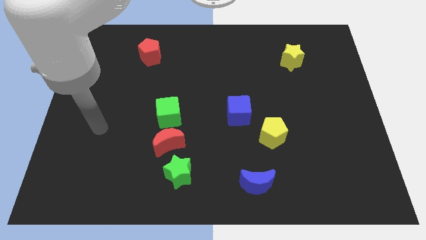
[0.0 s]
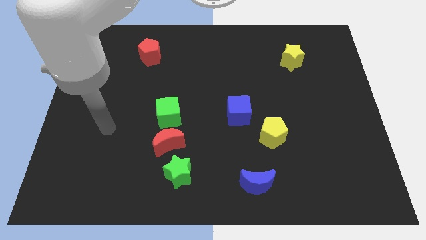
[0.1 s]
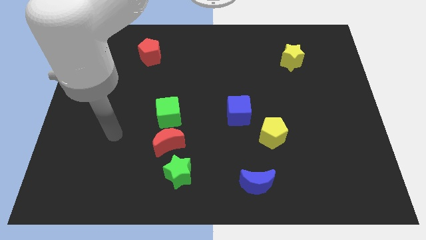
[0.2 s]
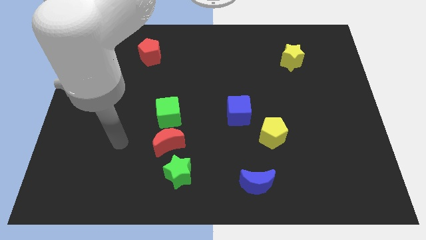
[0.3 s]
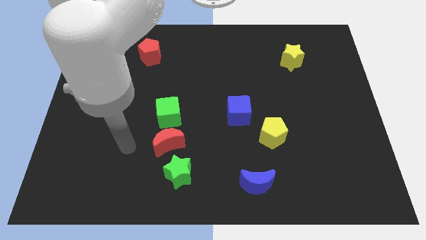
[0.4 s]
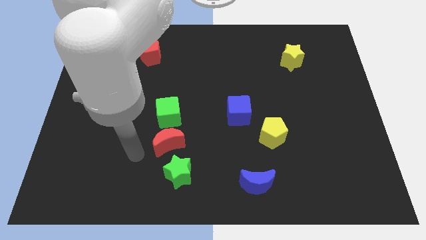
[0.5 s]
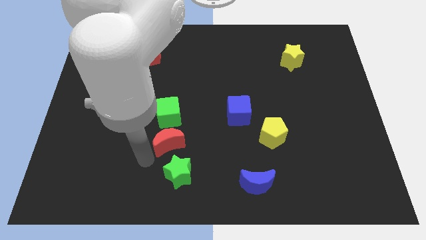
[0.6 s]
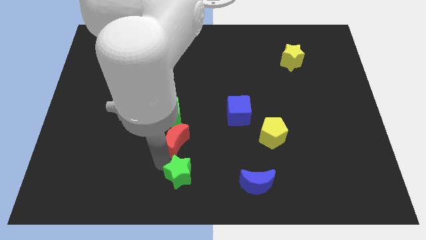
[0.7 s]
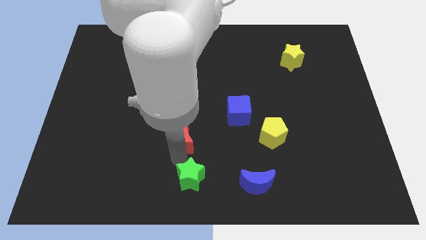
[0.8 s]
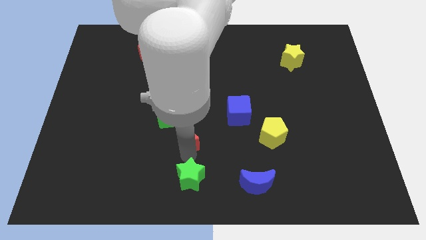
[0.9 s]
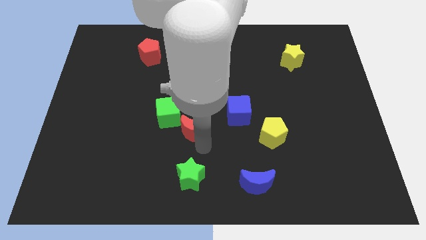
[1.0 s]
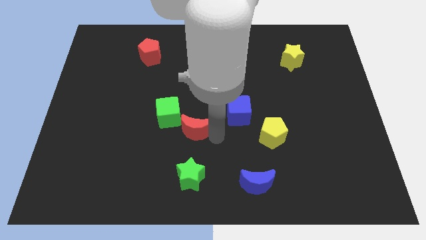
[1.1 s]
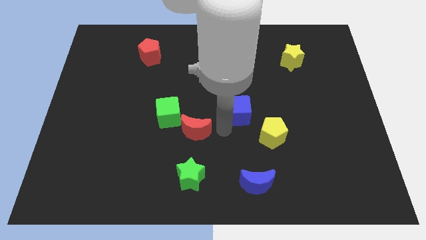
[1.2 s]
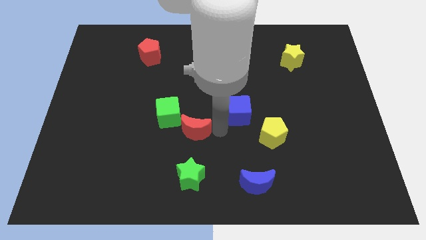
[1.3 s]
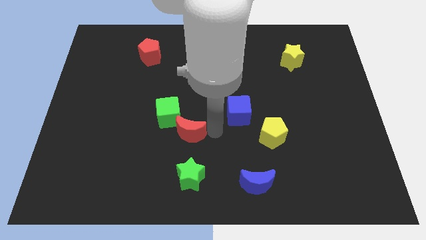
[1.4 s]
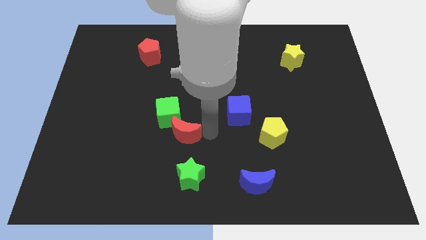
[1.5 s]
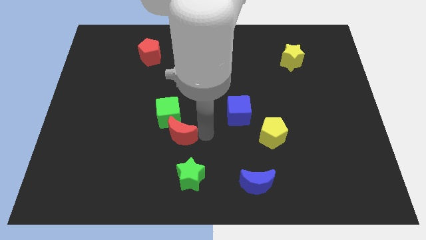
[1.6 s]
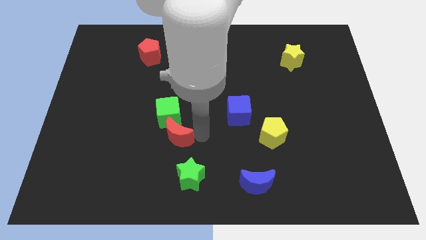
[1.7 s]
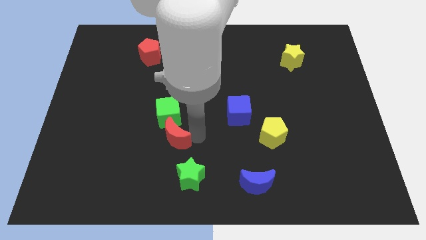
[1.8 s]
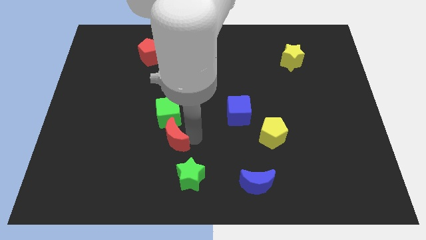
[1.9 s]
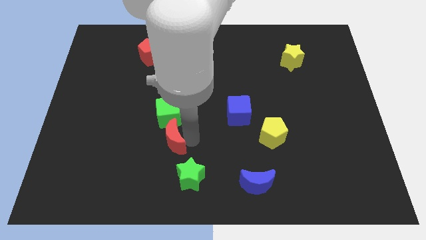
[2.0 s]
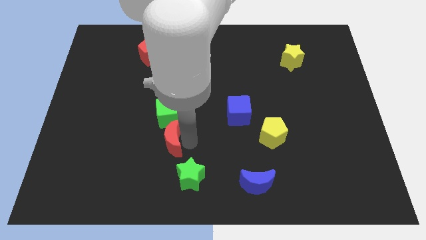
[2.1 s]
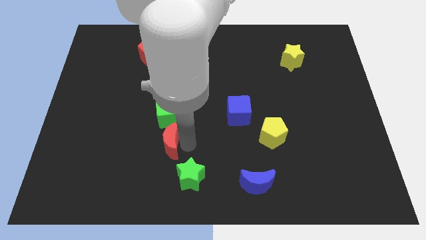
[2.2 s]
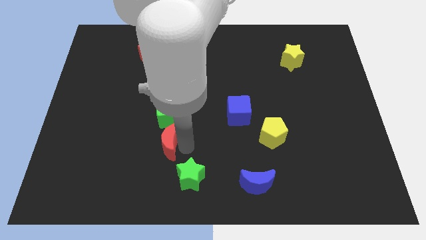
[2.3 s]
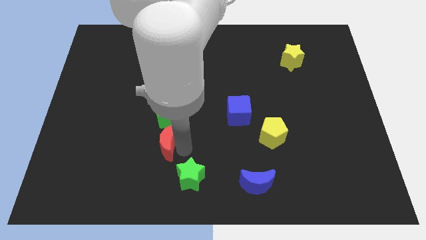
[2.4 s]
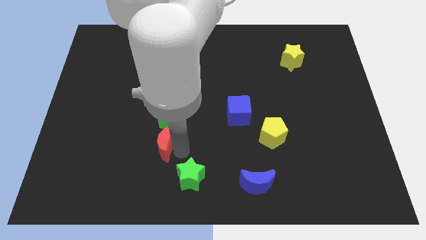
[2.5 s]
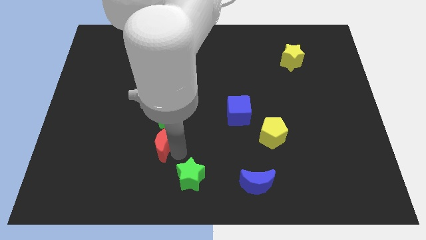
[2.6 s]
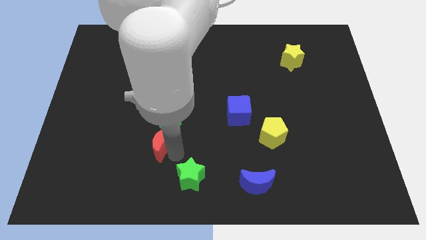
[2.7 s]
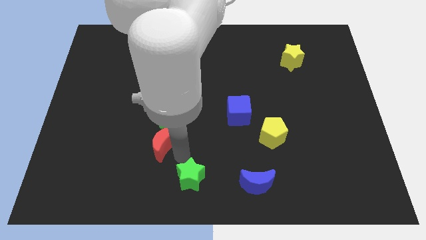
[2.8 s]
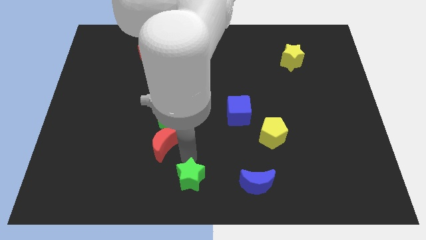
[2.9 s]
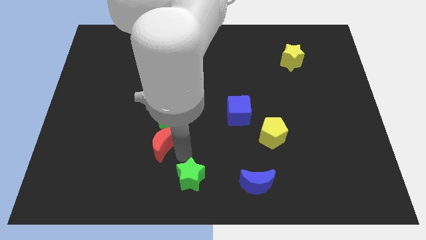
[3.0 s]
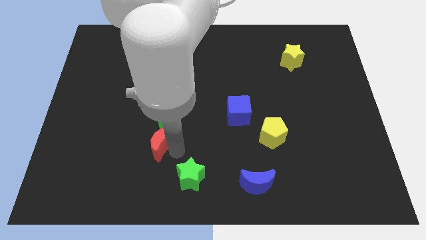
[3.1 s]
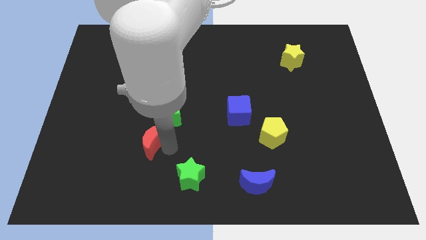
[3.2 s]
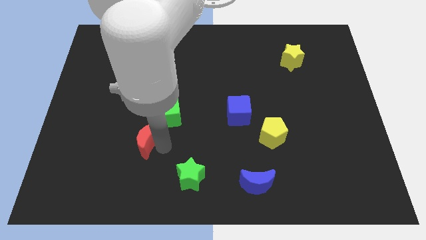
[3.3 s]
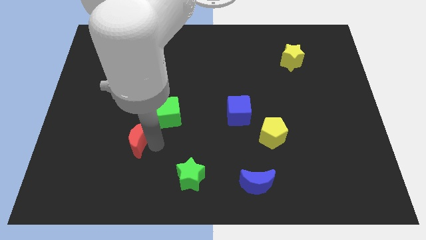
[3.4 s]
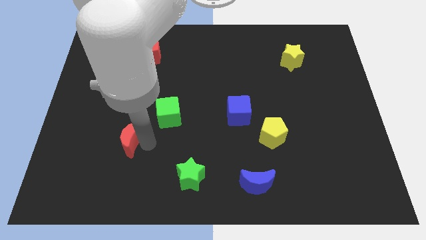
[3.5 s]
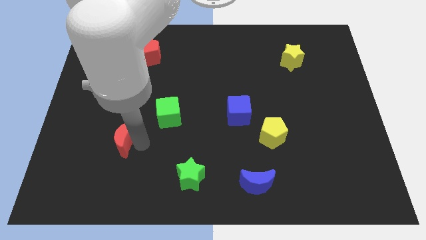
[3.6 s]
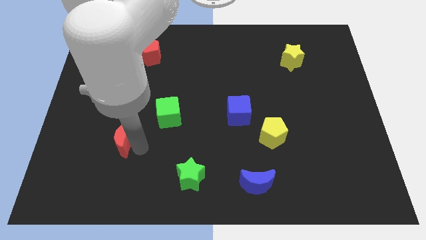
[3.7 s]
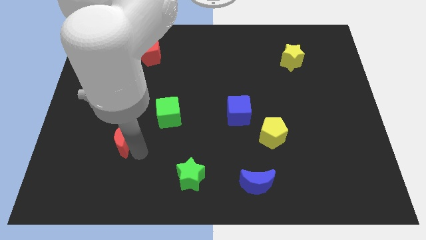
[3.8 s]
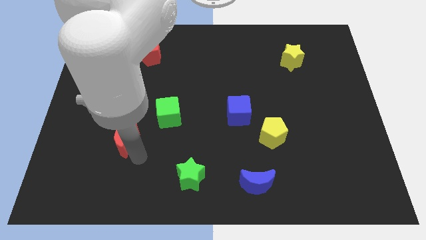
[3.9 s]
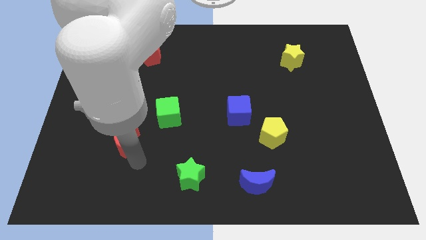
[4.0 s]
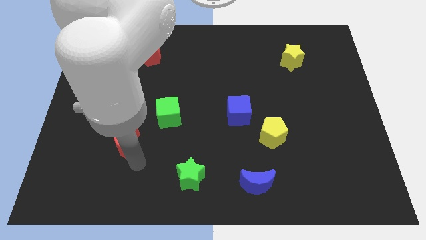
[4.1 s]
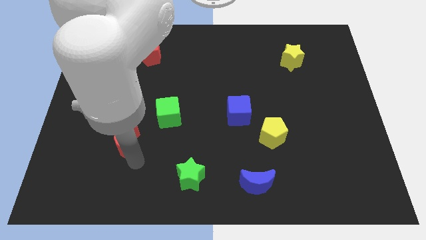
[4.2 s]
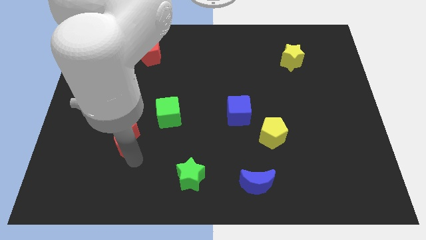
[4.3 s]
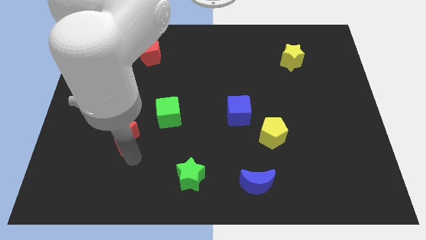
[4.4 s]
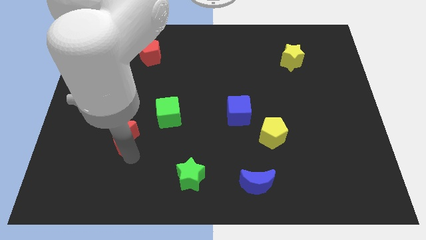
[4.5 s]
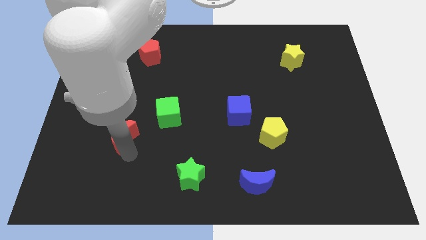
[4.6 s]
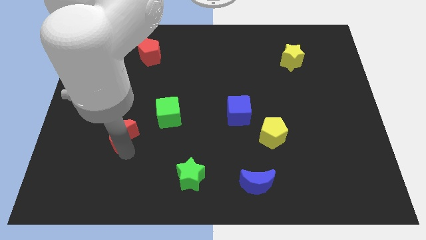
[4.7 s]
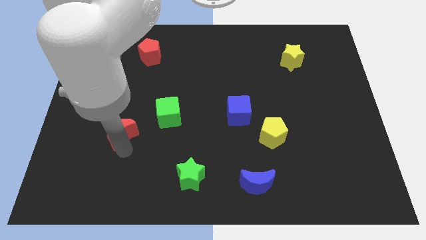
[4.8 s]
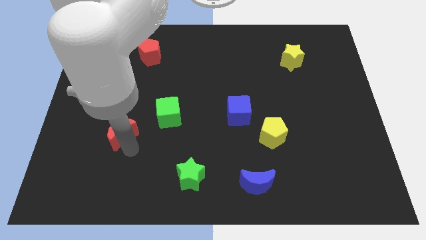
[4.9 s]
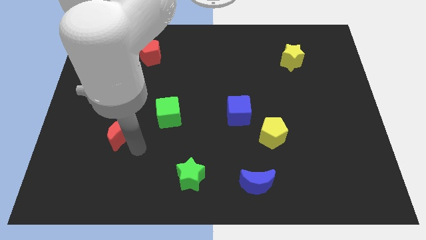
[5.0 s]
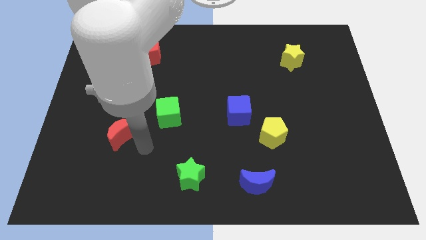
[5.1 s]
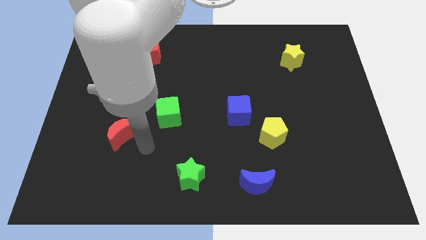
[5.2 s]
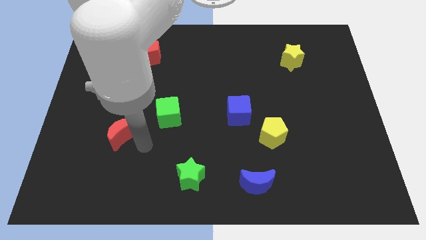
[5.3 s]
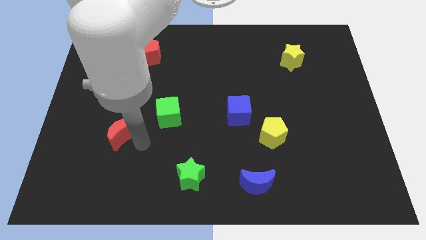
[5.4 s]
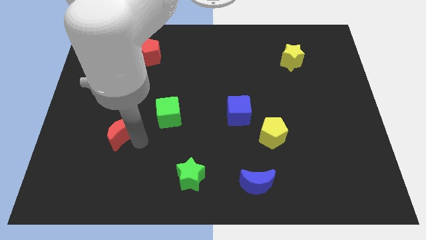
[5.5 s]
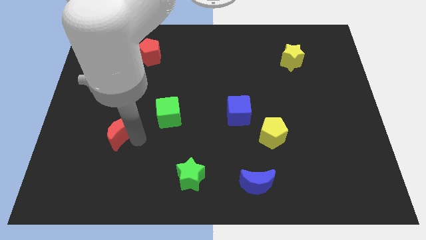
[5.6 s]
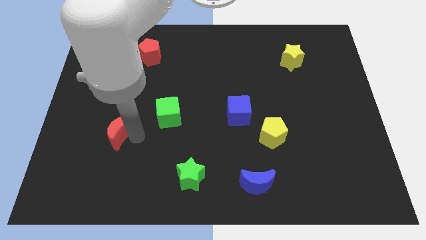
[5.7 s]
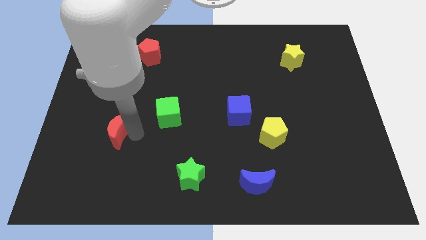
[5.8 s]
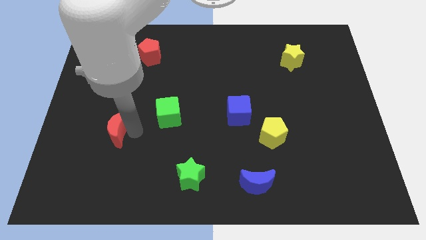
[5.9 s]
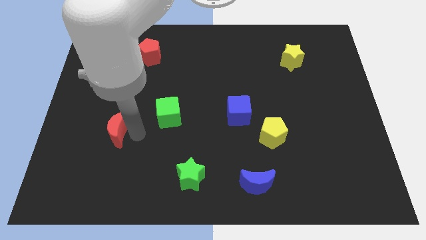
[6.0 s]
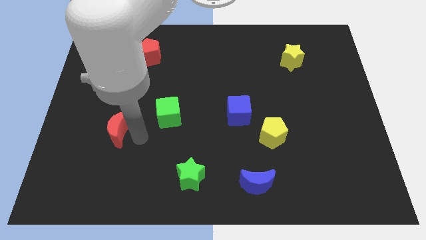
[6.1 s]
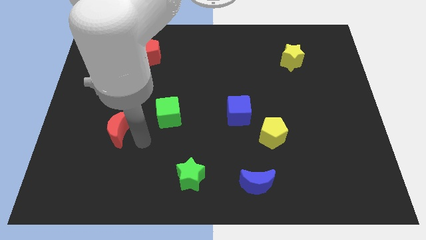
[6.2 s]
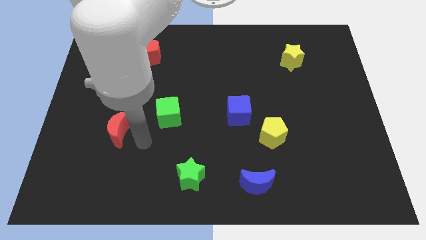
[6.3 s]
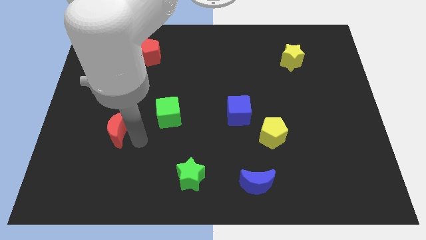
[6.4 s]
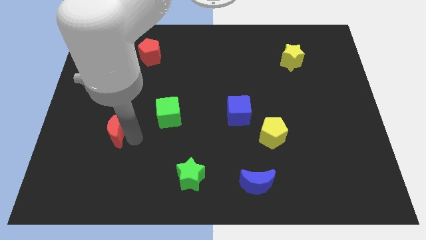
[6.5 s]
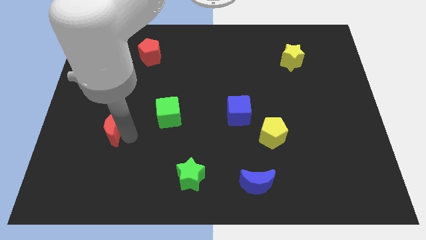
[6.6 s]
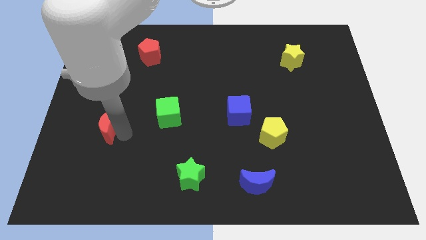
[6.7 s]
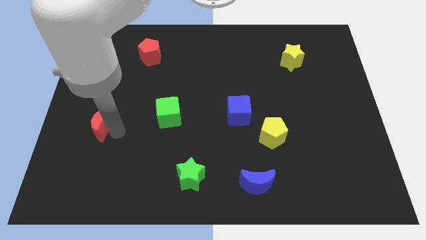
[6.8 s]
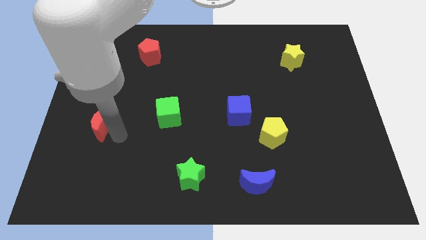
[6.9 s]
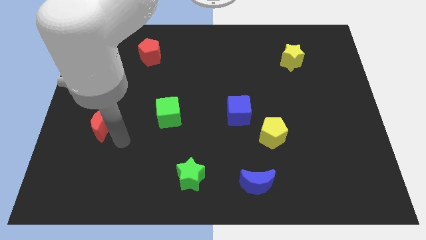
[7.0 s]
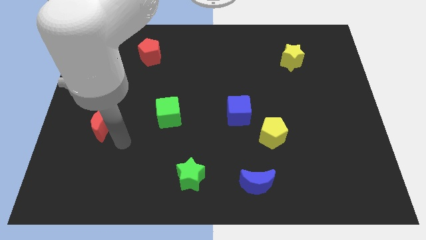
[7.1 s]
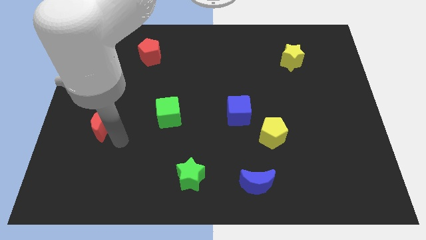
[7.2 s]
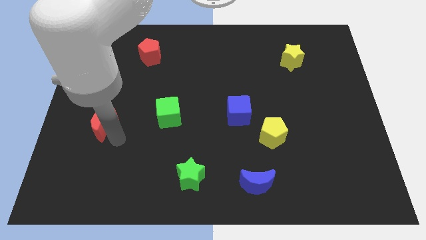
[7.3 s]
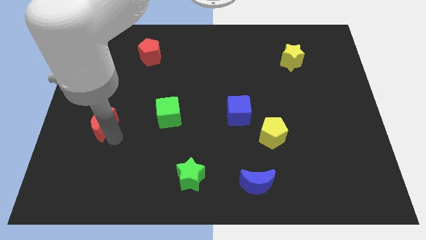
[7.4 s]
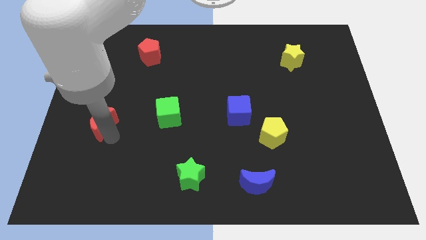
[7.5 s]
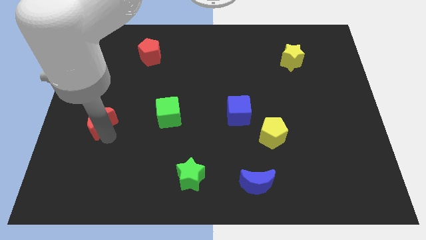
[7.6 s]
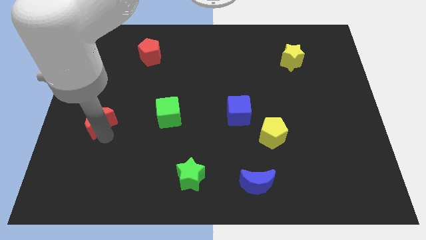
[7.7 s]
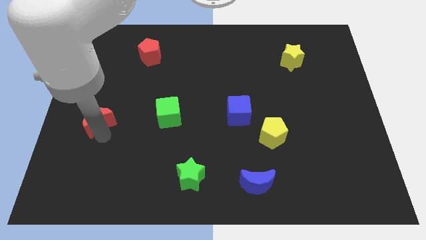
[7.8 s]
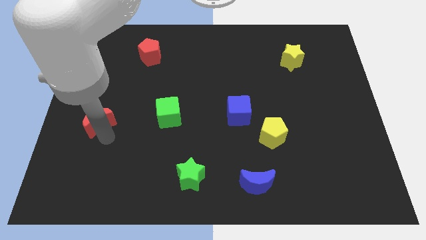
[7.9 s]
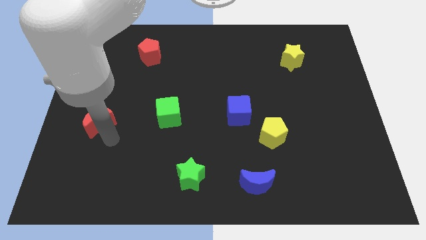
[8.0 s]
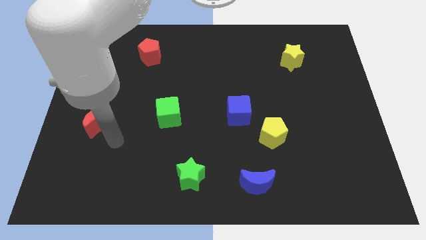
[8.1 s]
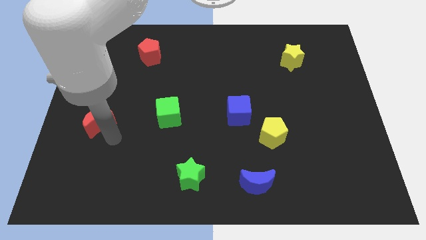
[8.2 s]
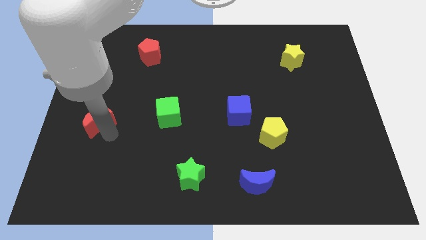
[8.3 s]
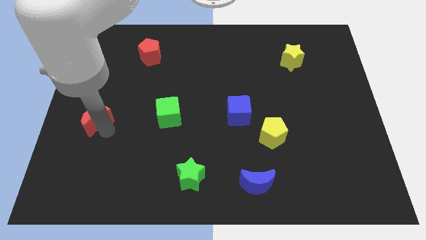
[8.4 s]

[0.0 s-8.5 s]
put the red moon to the left side
